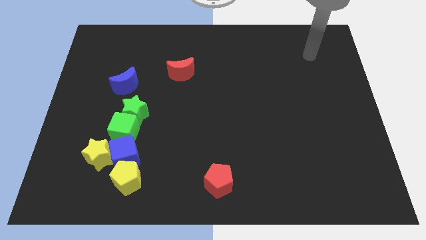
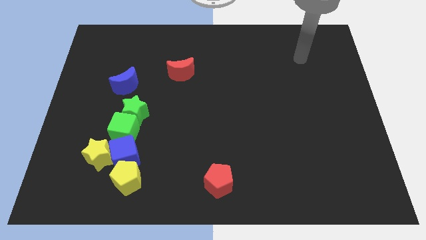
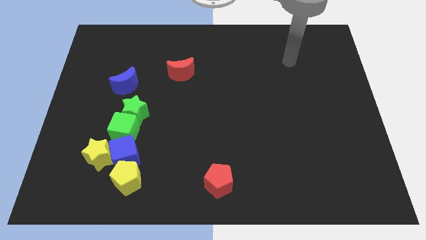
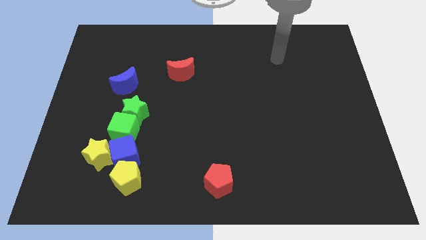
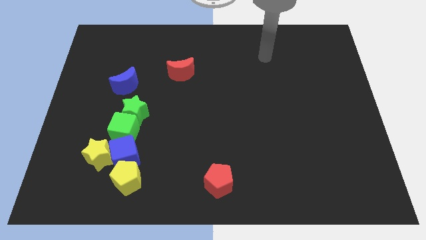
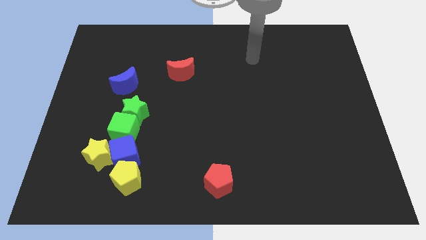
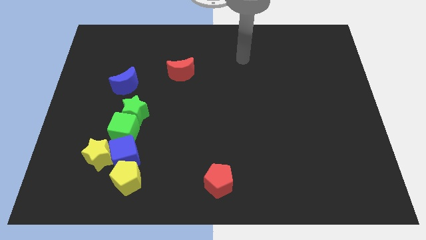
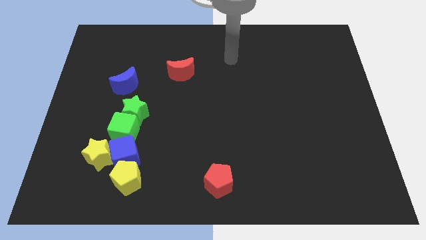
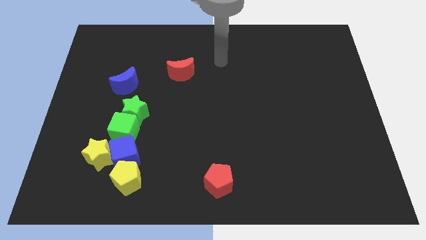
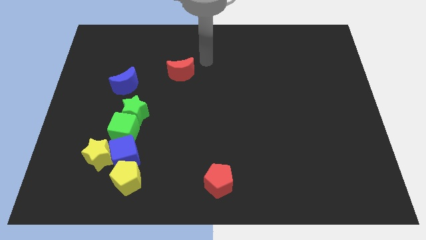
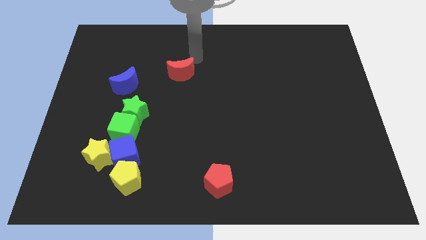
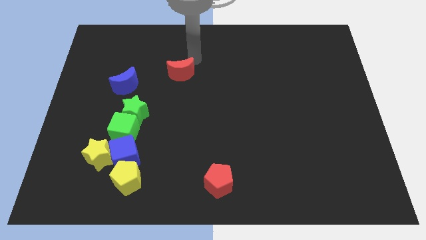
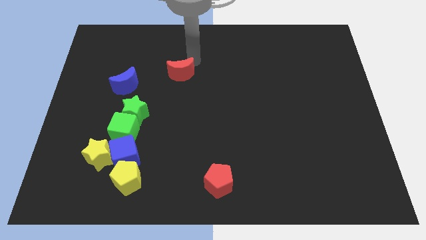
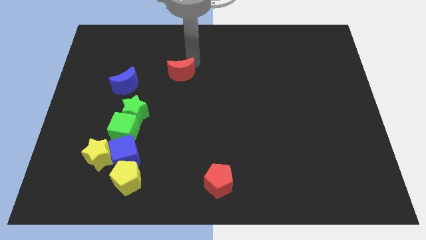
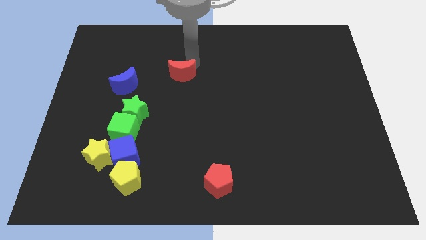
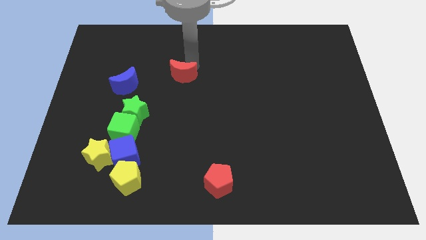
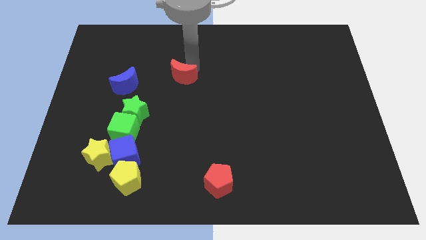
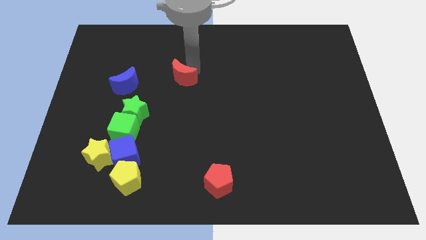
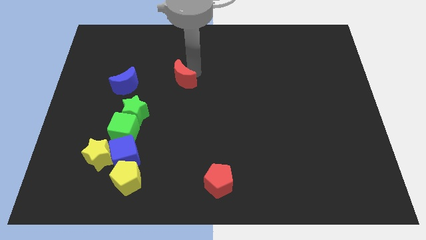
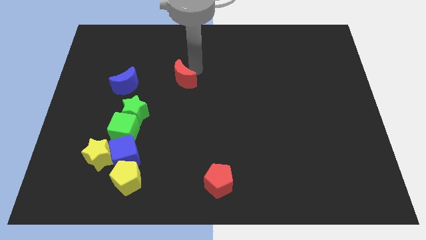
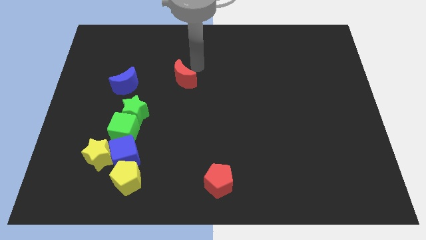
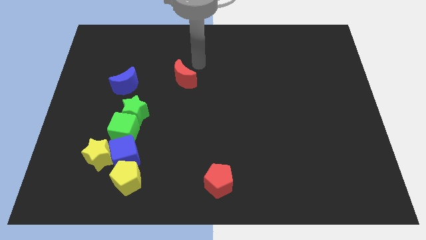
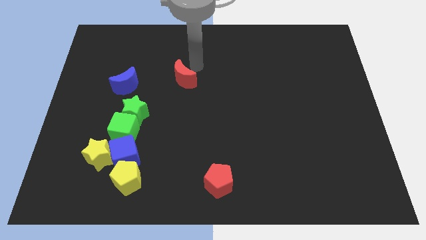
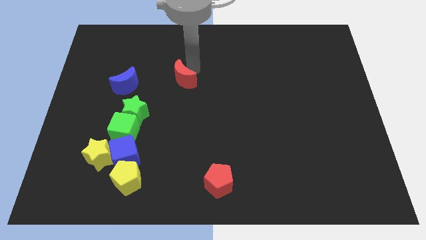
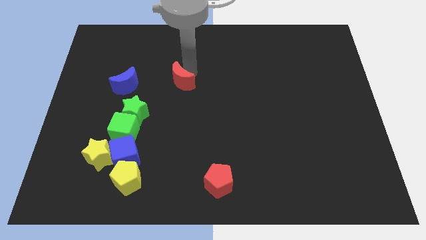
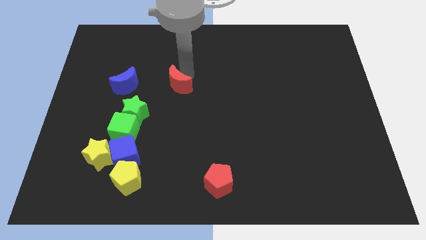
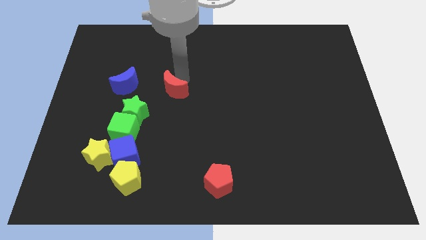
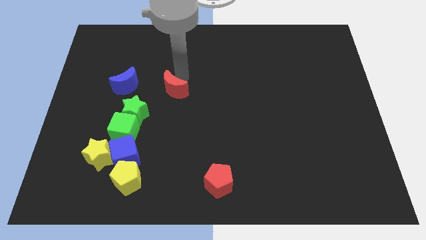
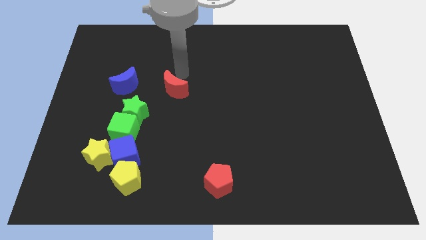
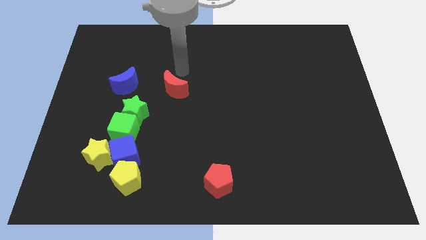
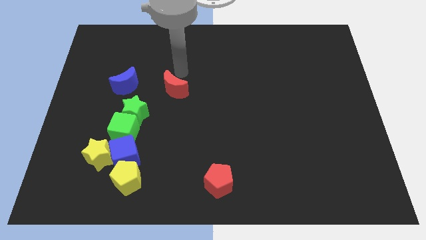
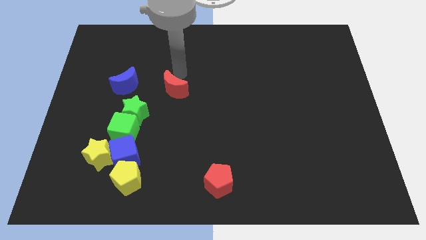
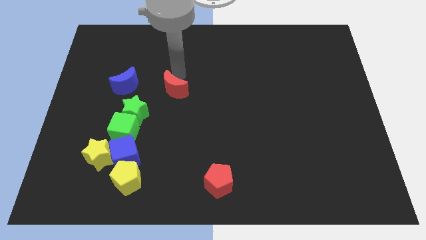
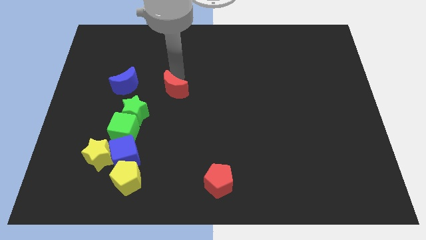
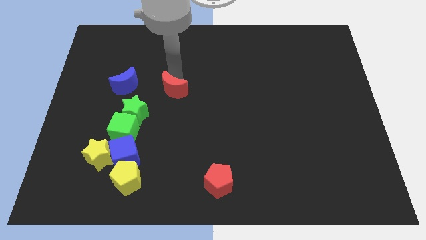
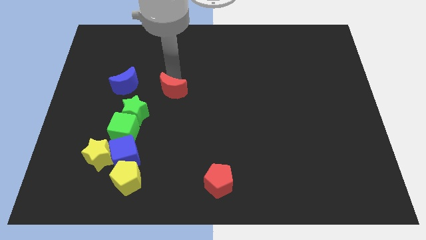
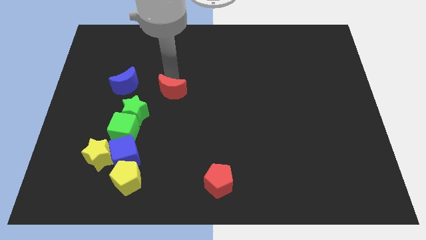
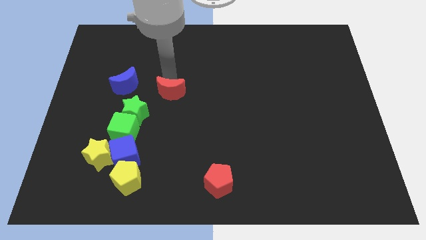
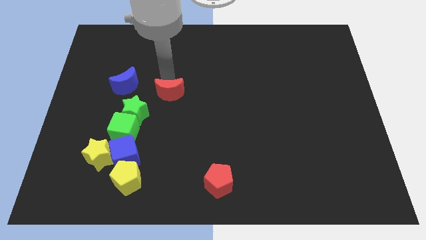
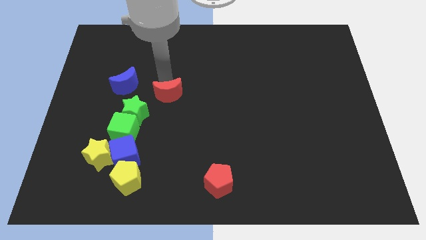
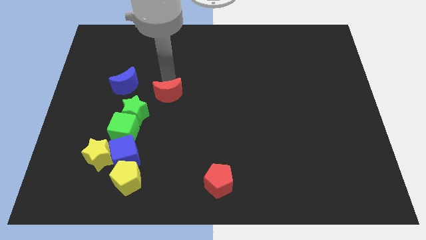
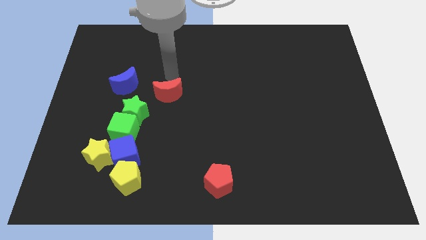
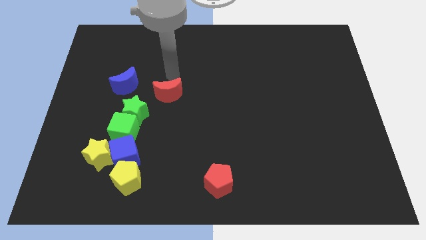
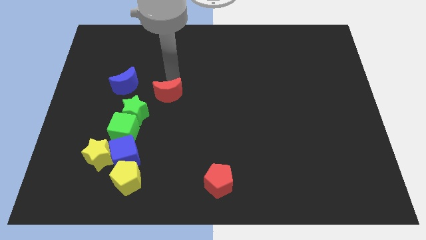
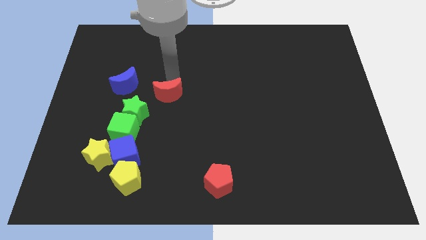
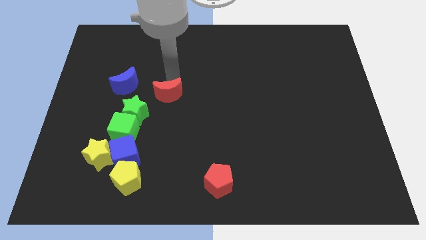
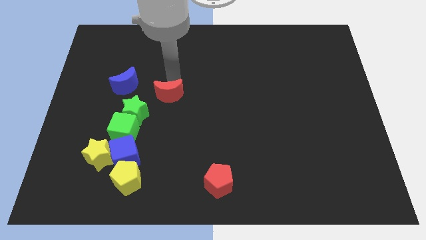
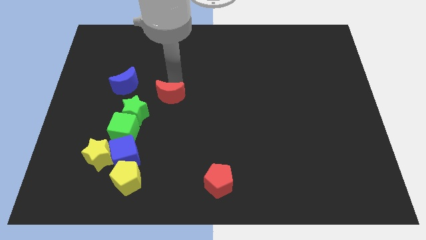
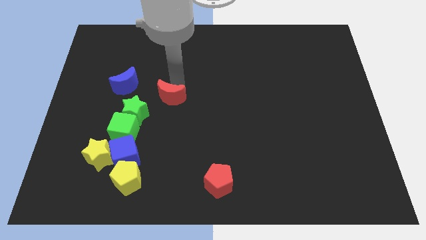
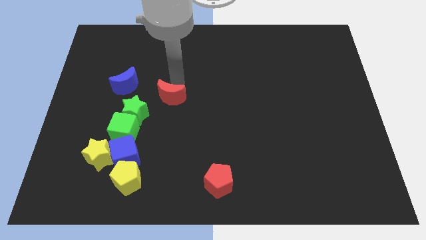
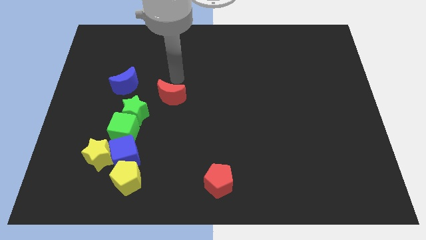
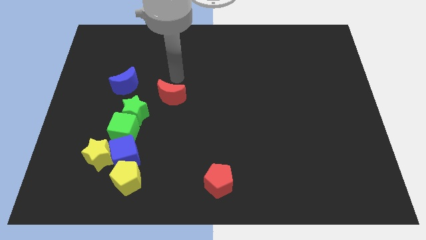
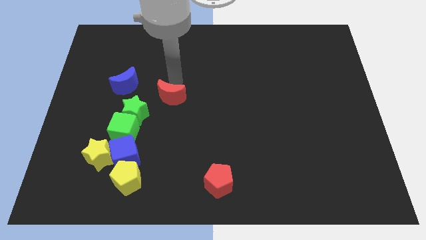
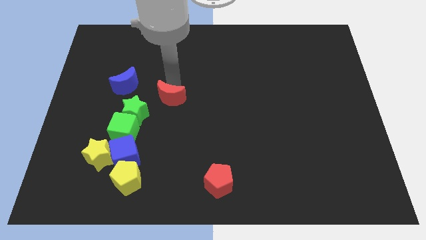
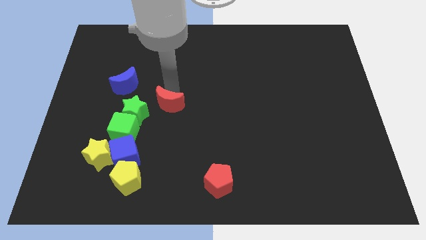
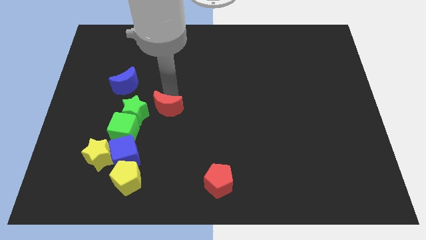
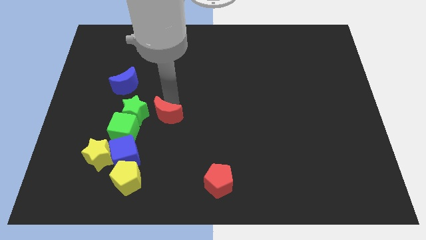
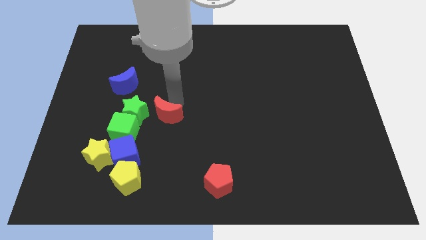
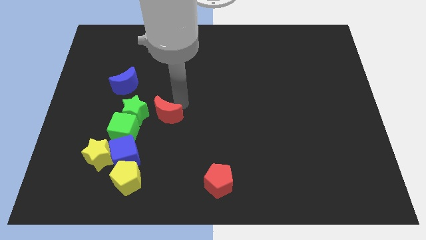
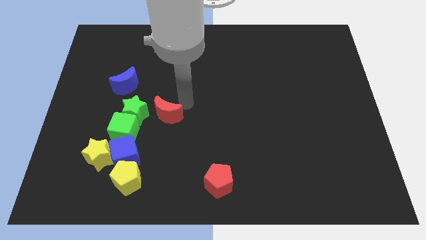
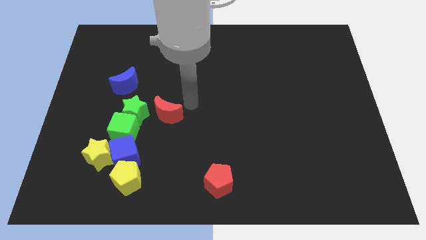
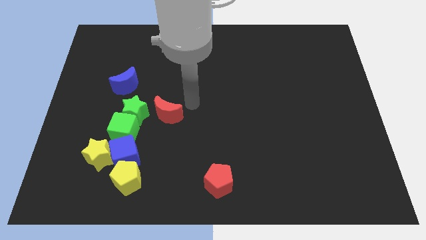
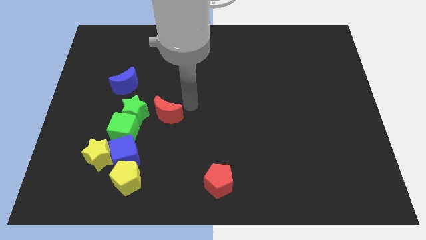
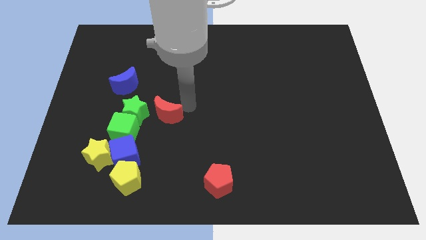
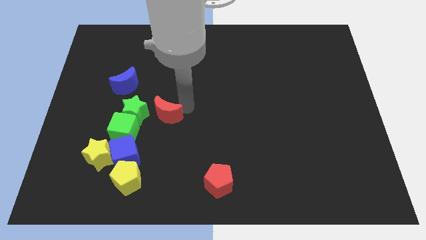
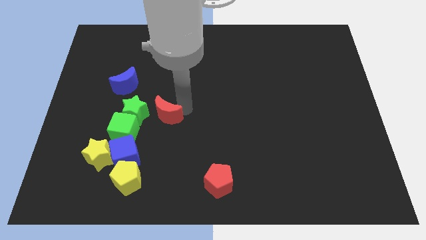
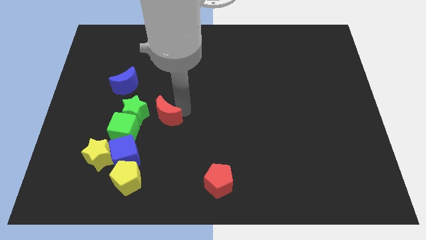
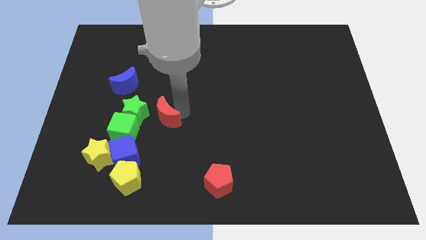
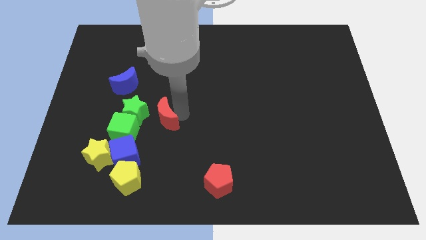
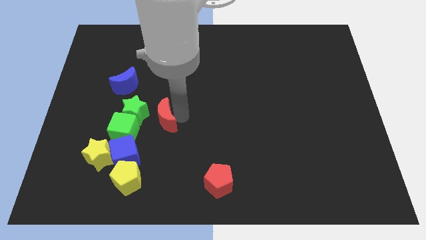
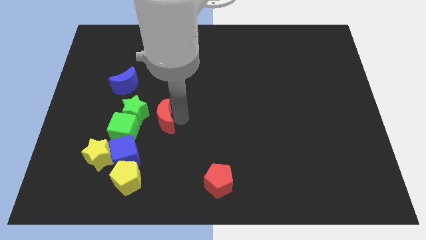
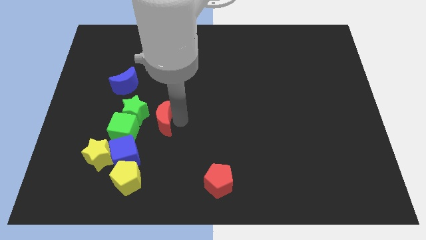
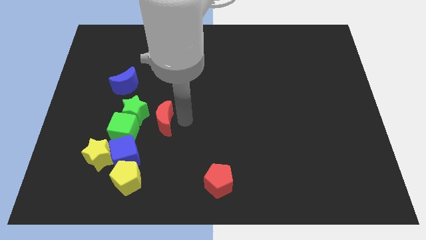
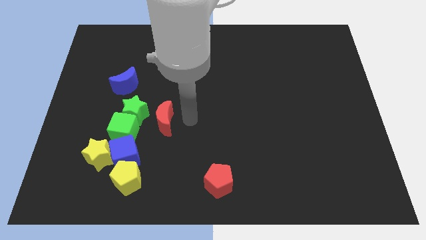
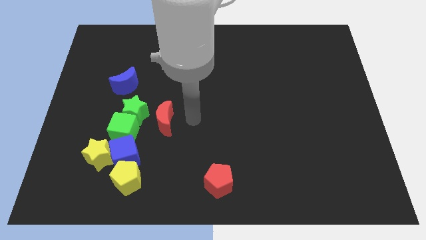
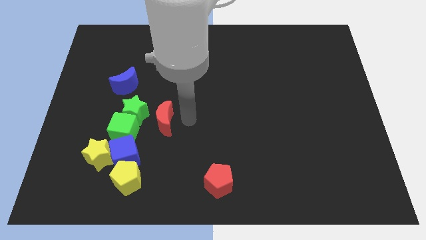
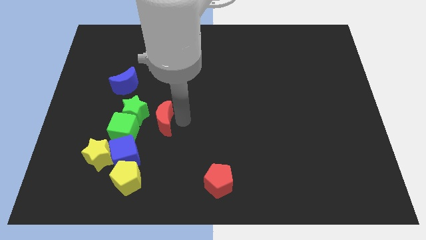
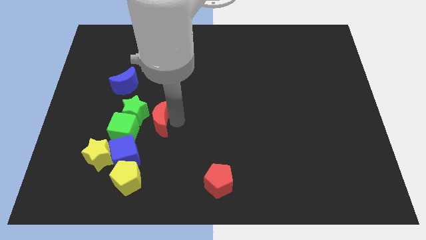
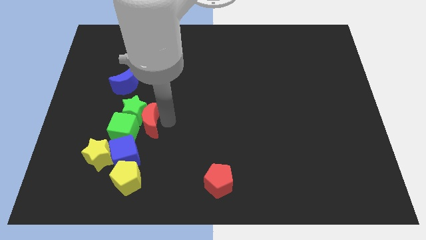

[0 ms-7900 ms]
put the red moon to the green cube
